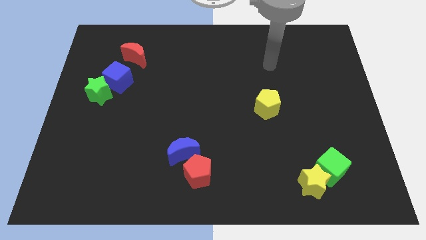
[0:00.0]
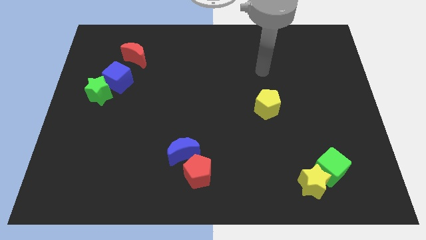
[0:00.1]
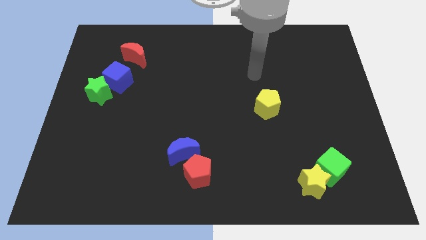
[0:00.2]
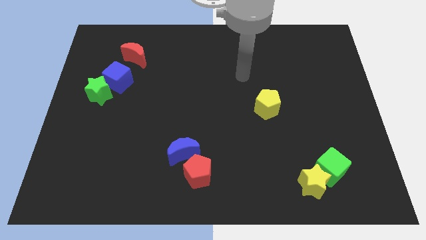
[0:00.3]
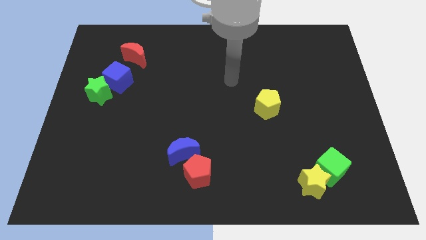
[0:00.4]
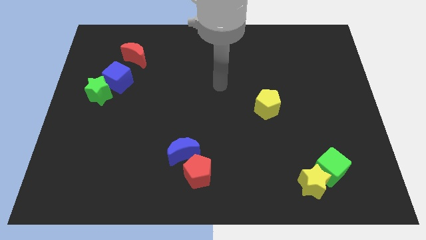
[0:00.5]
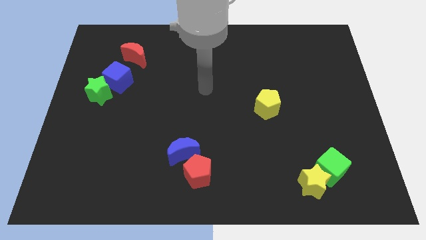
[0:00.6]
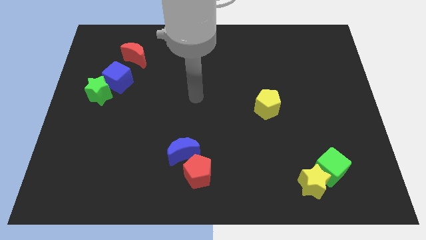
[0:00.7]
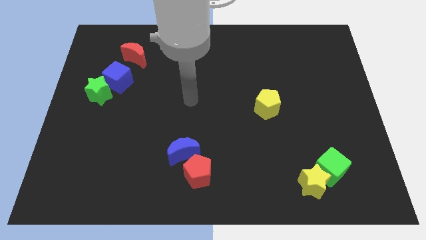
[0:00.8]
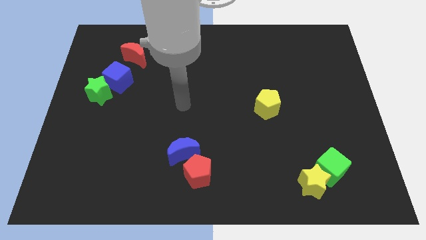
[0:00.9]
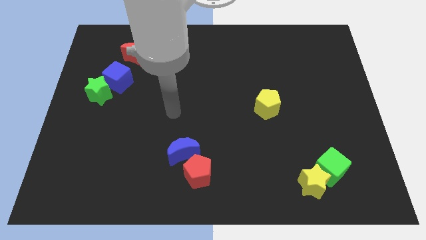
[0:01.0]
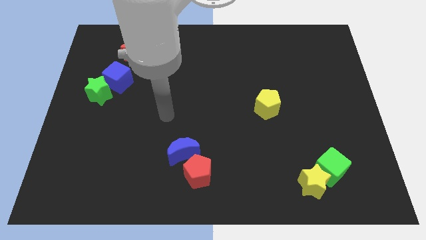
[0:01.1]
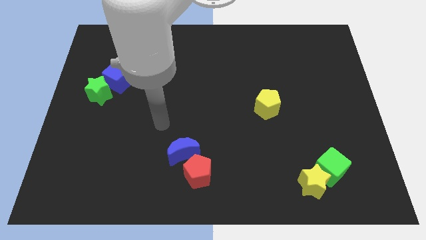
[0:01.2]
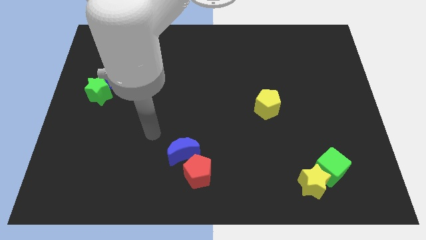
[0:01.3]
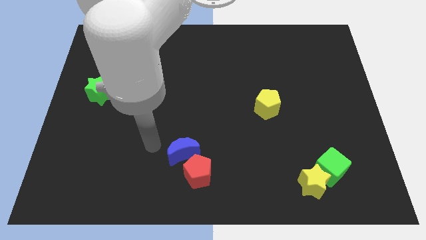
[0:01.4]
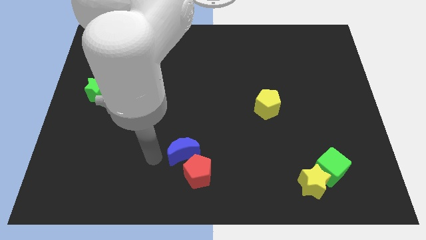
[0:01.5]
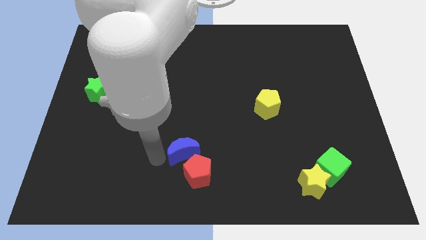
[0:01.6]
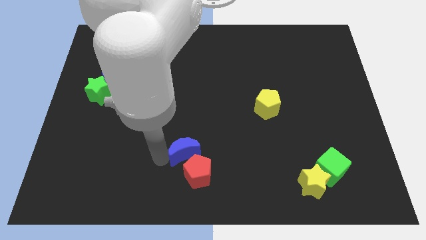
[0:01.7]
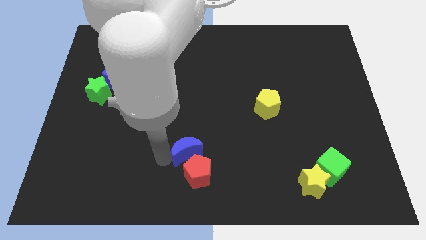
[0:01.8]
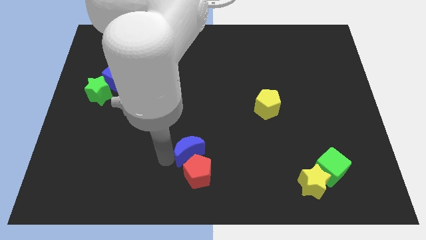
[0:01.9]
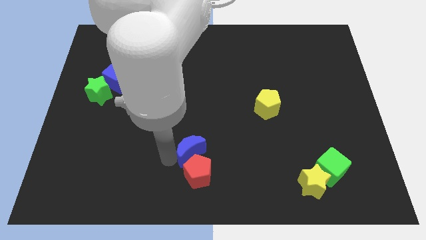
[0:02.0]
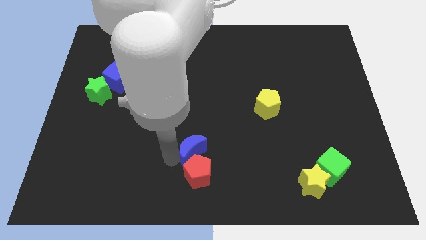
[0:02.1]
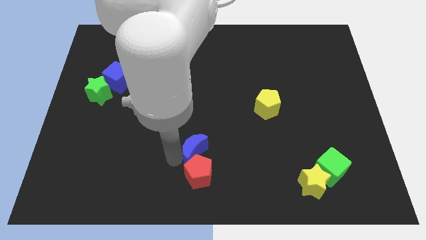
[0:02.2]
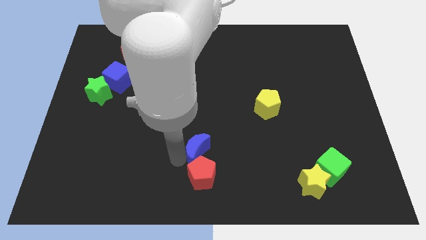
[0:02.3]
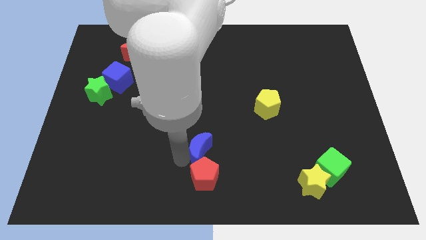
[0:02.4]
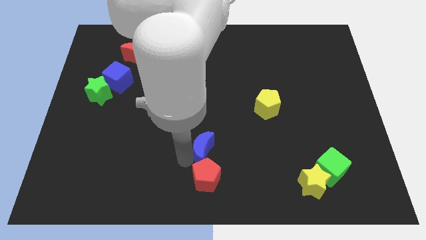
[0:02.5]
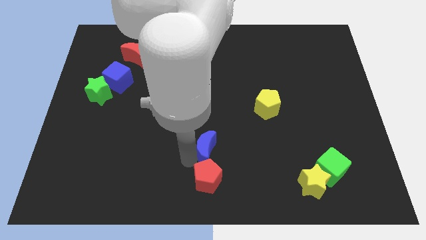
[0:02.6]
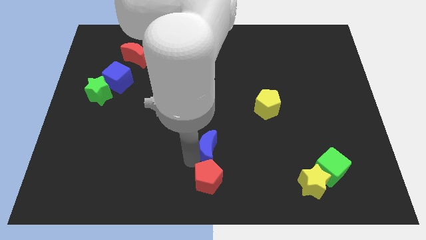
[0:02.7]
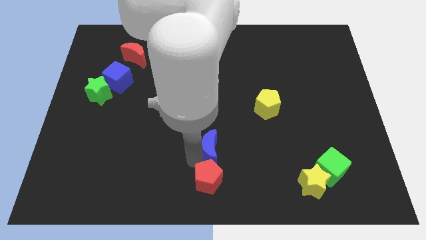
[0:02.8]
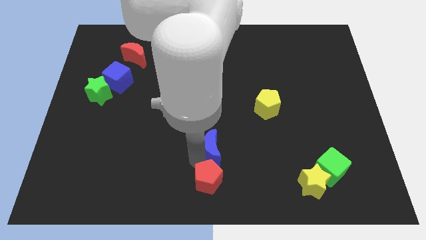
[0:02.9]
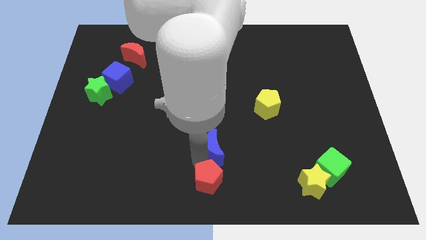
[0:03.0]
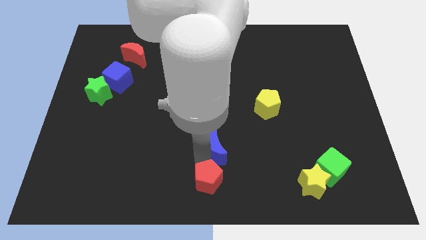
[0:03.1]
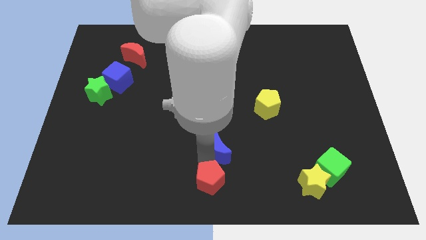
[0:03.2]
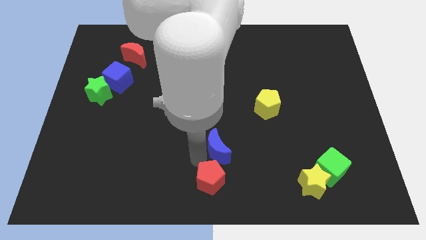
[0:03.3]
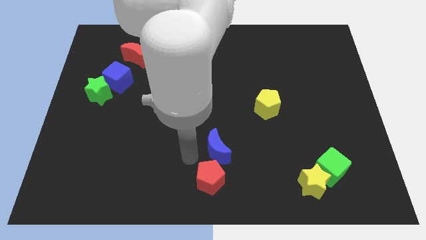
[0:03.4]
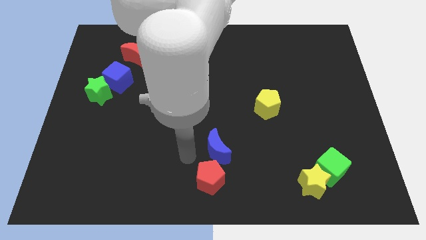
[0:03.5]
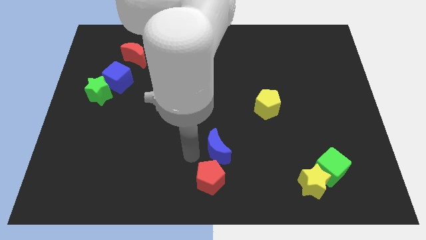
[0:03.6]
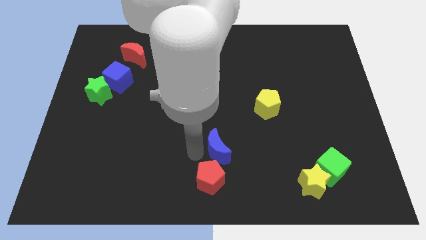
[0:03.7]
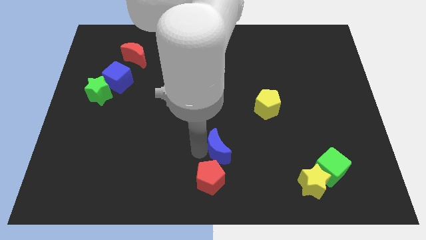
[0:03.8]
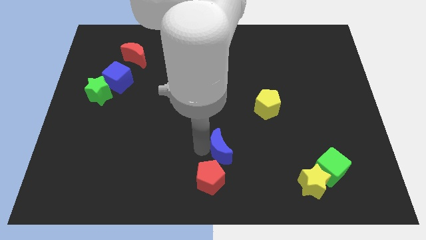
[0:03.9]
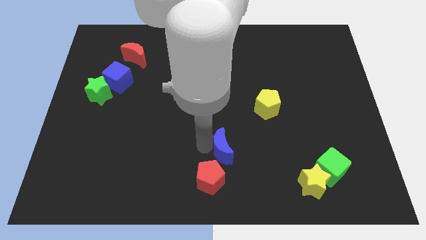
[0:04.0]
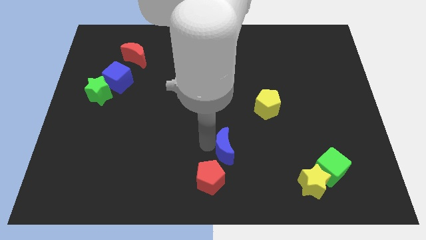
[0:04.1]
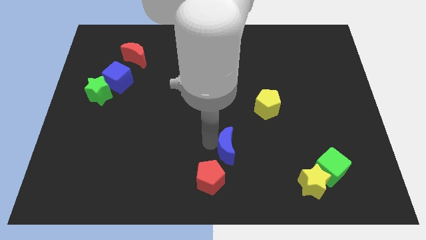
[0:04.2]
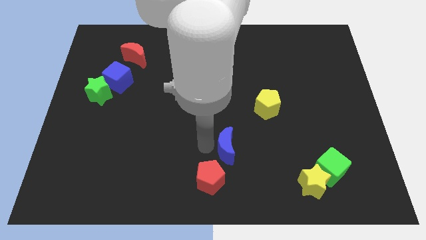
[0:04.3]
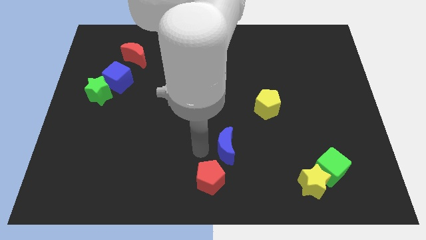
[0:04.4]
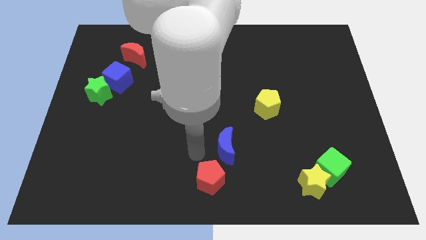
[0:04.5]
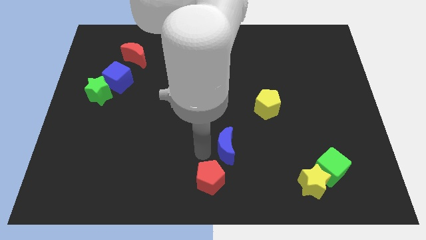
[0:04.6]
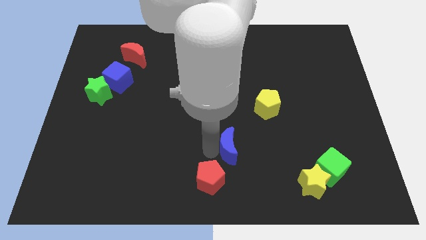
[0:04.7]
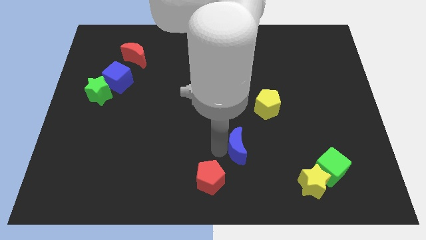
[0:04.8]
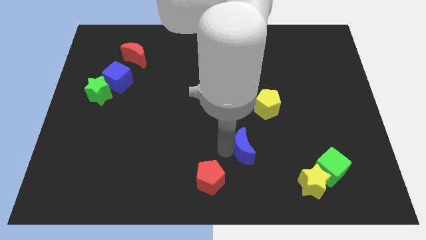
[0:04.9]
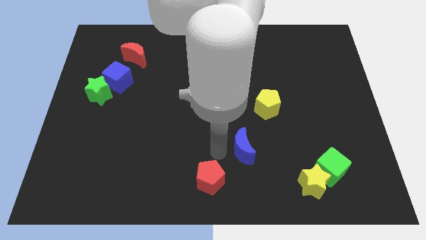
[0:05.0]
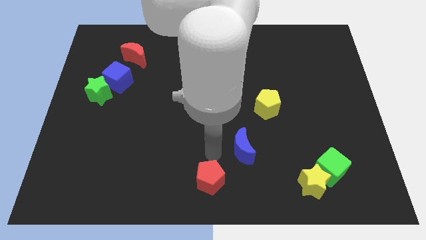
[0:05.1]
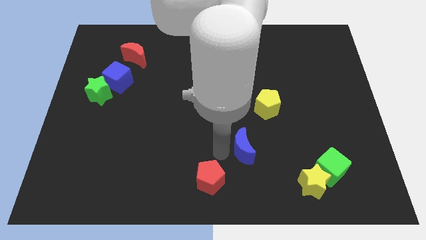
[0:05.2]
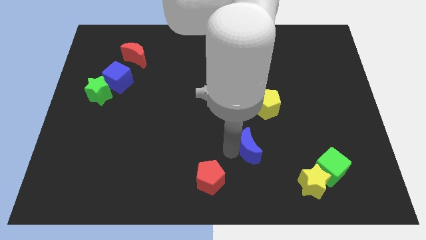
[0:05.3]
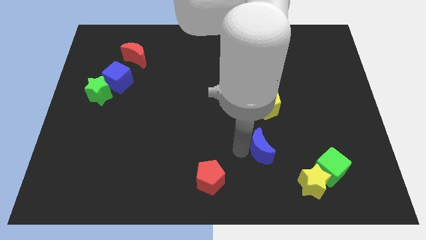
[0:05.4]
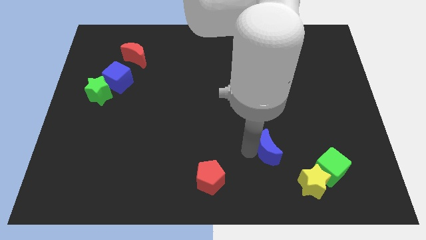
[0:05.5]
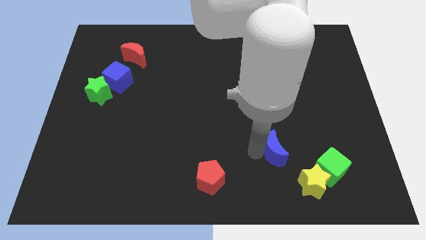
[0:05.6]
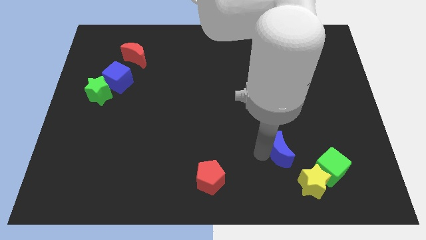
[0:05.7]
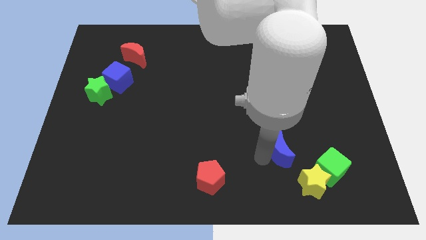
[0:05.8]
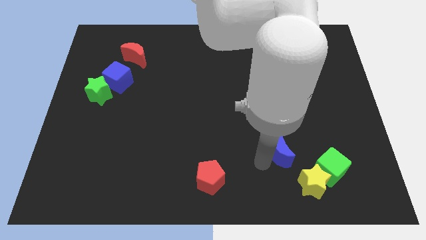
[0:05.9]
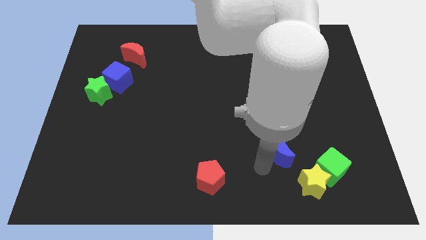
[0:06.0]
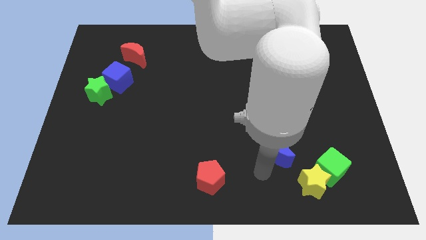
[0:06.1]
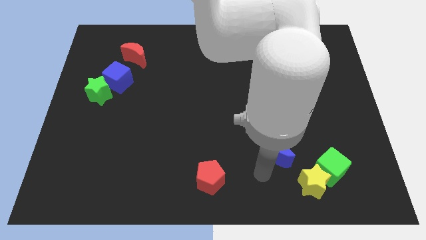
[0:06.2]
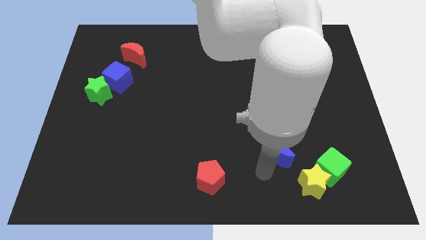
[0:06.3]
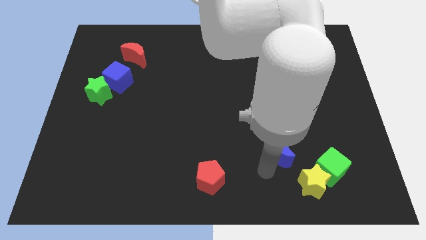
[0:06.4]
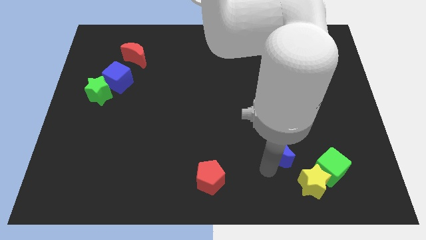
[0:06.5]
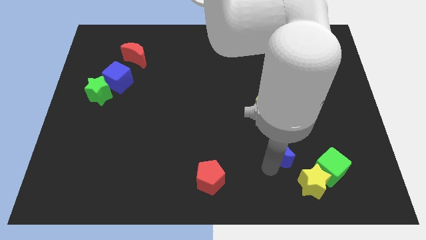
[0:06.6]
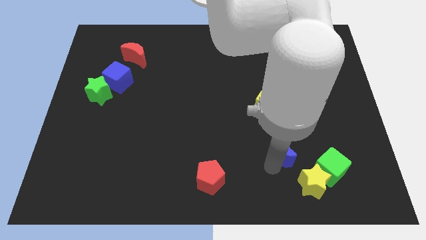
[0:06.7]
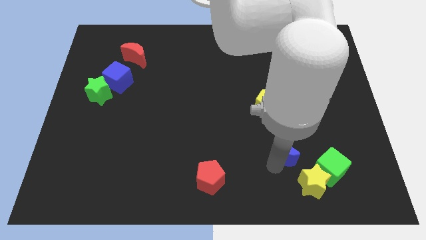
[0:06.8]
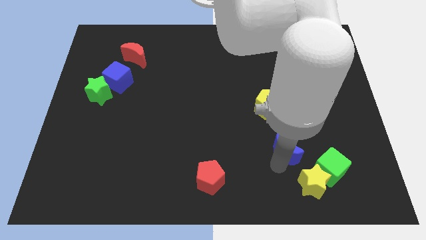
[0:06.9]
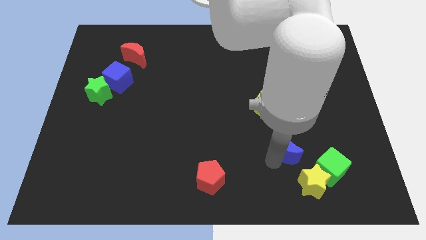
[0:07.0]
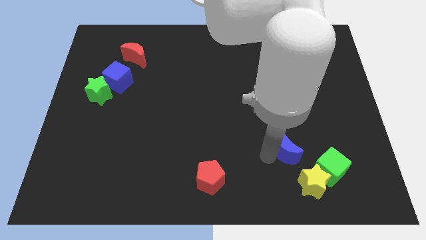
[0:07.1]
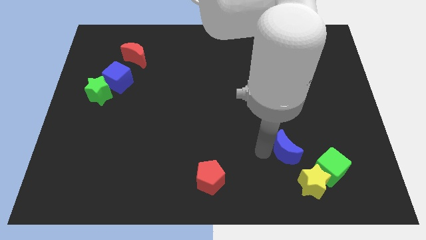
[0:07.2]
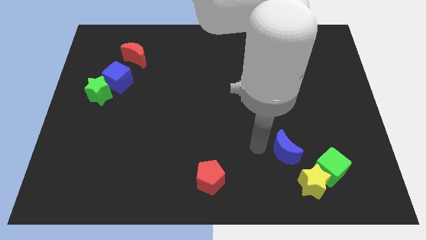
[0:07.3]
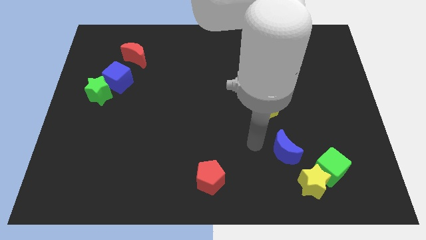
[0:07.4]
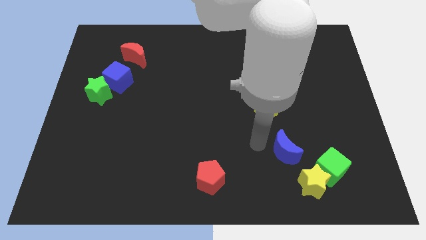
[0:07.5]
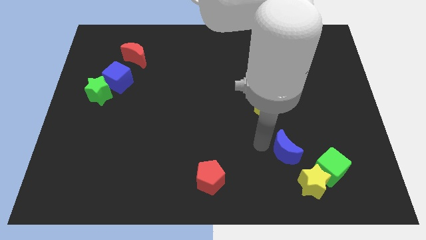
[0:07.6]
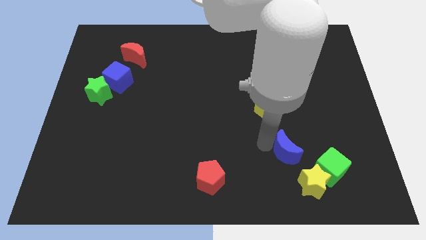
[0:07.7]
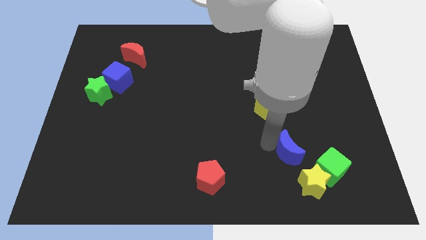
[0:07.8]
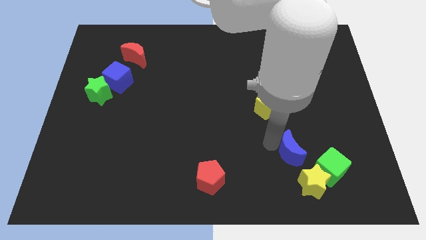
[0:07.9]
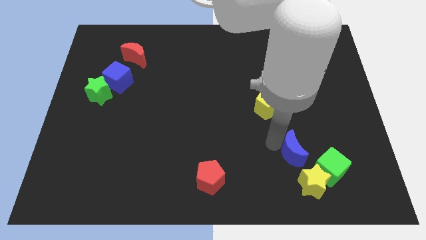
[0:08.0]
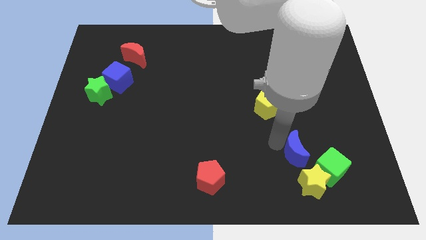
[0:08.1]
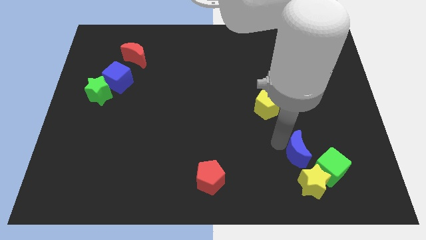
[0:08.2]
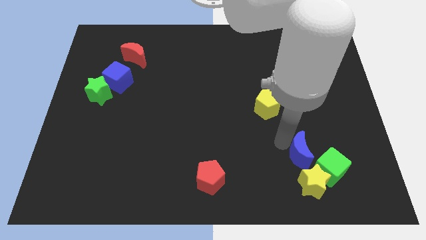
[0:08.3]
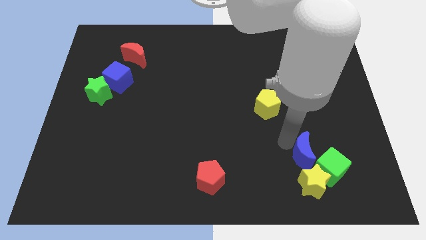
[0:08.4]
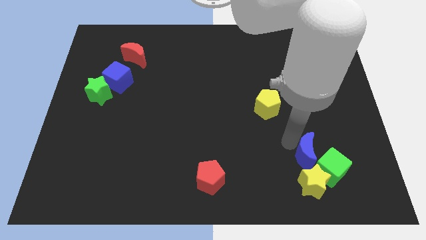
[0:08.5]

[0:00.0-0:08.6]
move the blue moon close to the green cube
